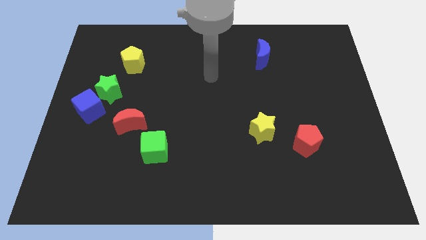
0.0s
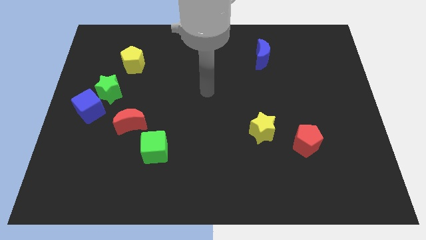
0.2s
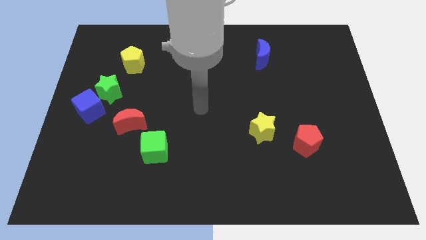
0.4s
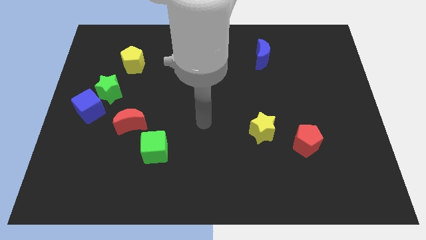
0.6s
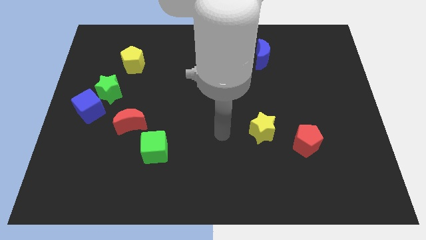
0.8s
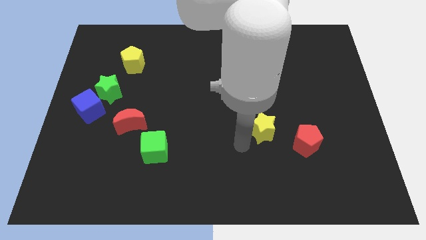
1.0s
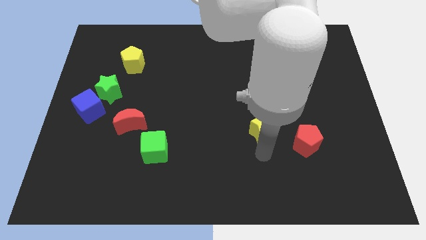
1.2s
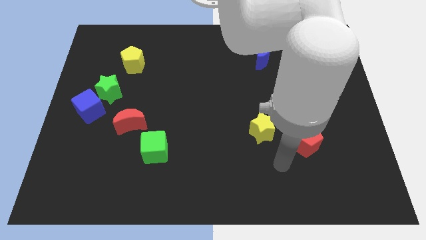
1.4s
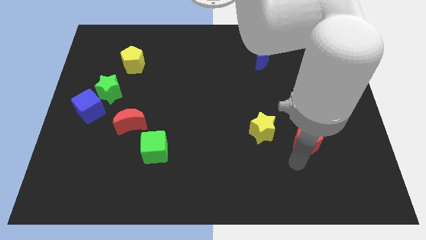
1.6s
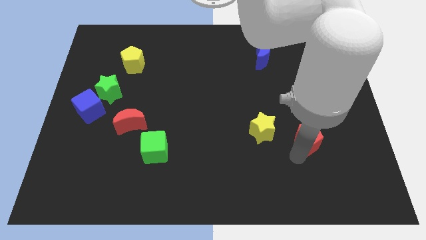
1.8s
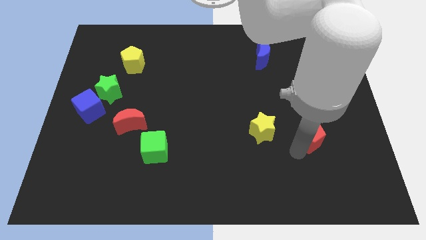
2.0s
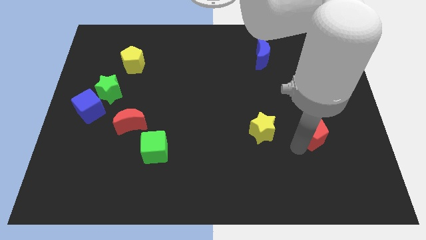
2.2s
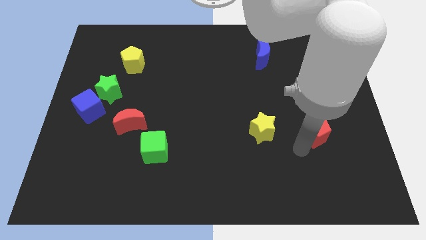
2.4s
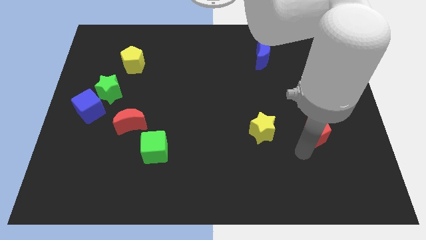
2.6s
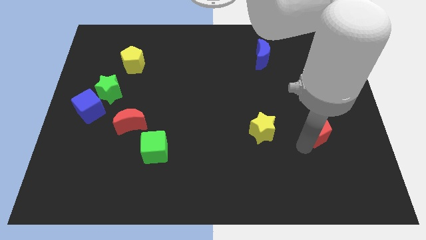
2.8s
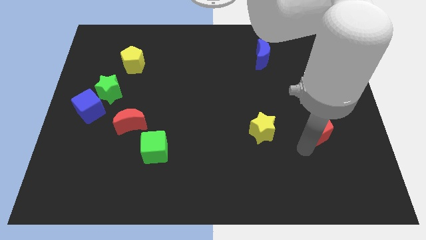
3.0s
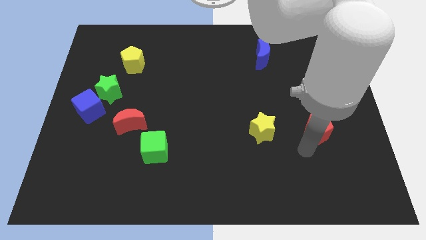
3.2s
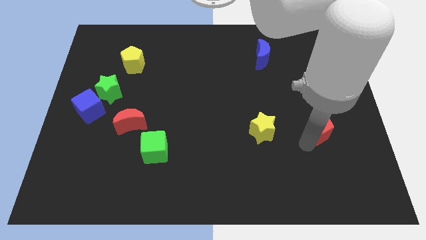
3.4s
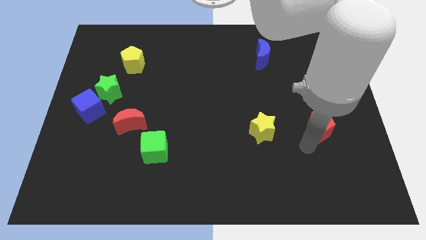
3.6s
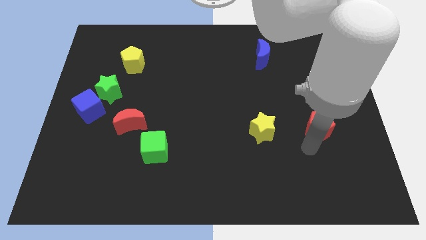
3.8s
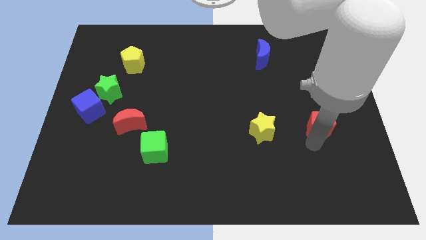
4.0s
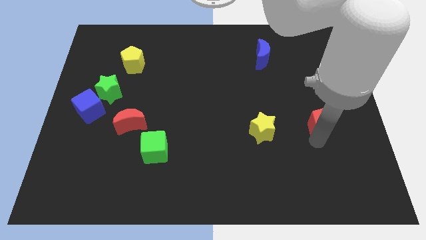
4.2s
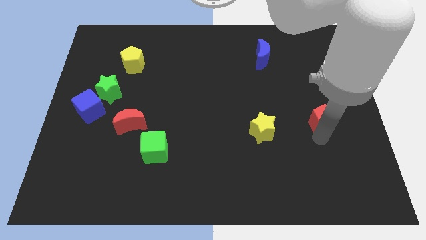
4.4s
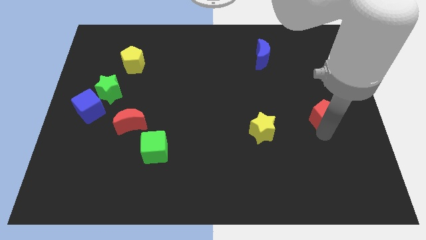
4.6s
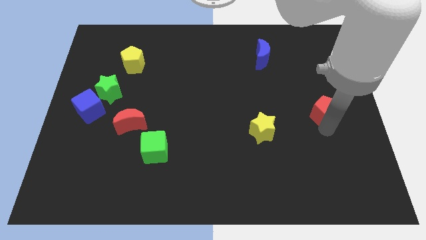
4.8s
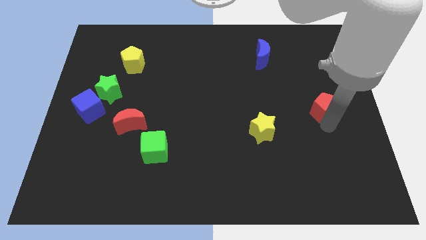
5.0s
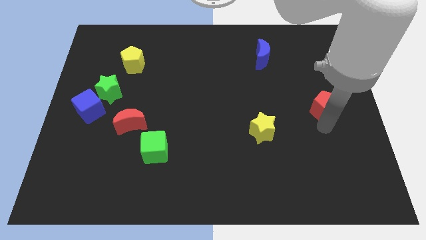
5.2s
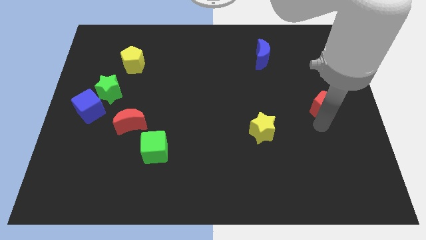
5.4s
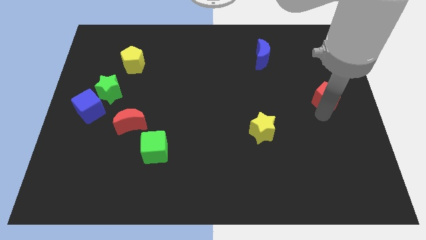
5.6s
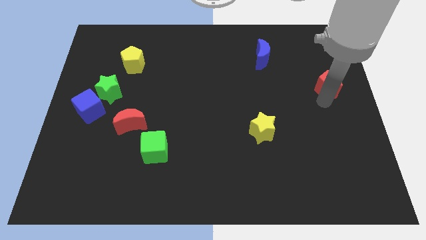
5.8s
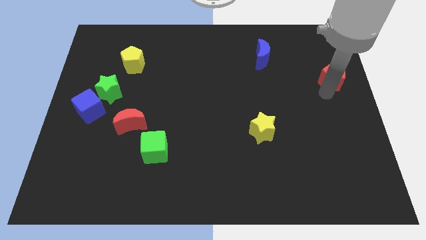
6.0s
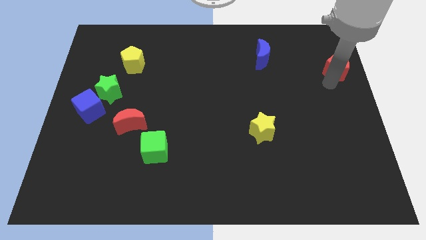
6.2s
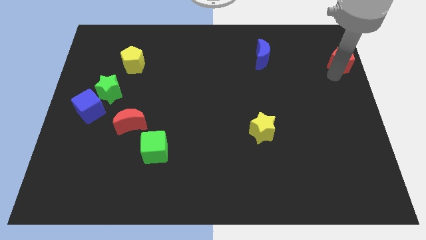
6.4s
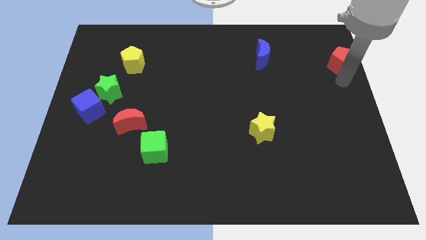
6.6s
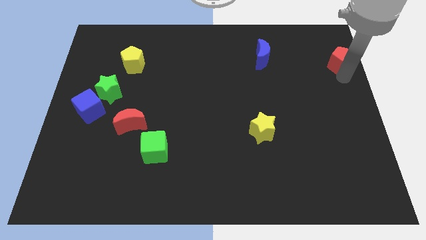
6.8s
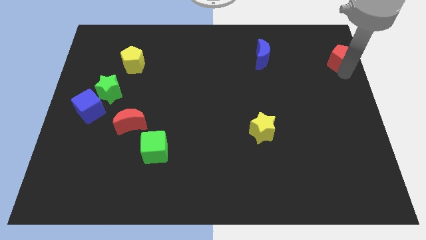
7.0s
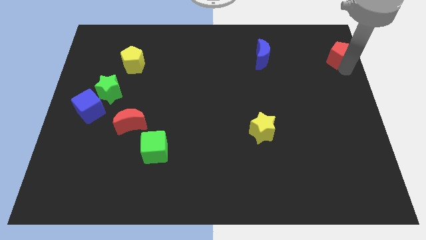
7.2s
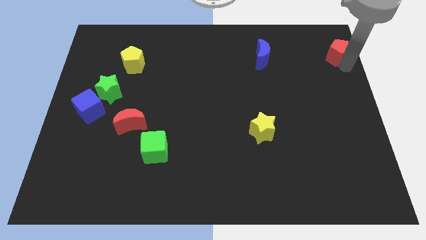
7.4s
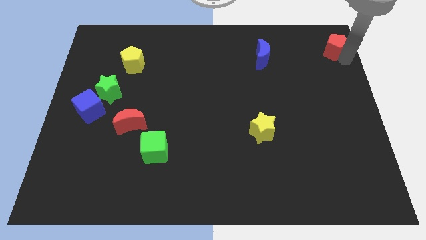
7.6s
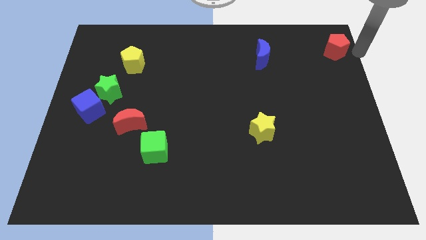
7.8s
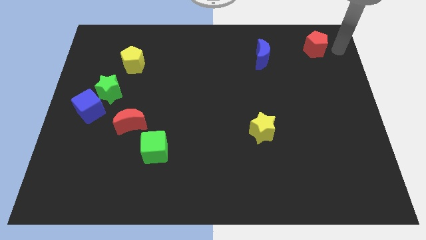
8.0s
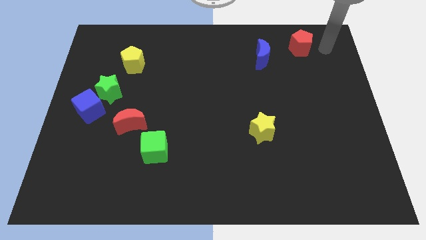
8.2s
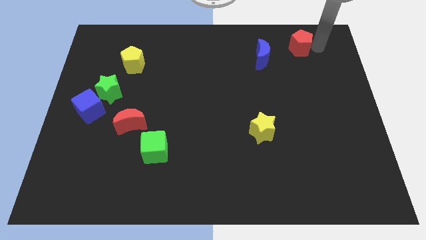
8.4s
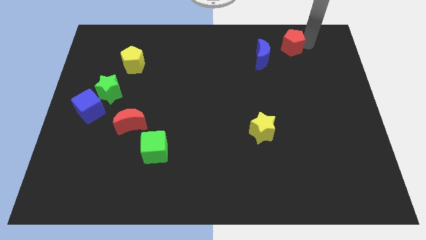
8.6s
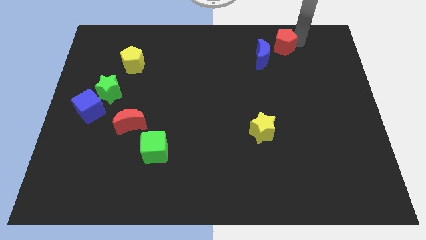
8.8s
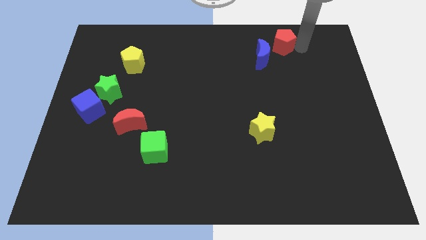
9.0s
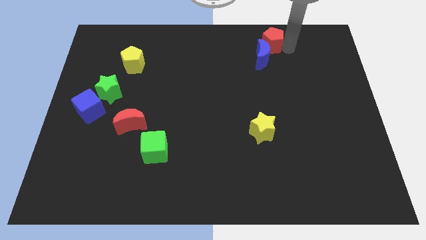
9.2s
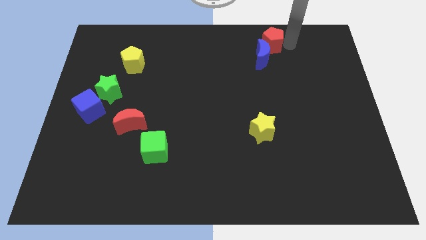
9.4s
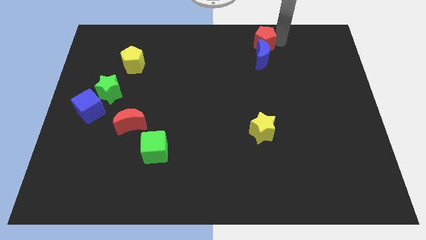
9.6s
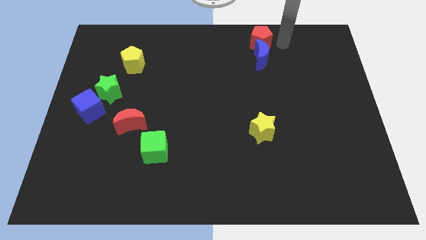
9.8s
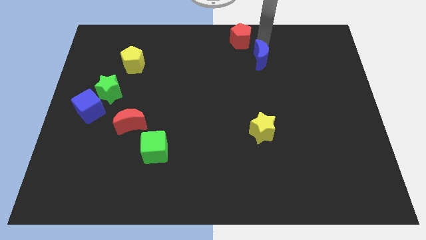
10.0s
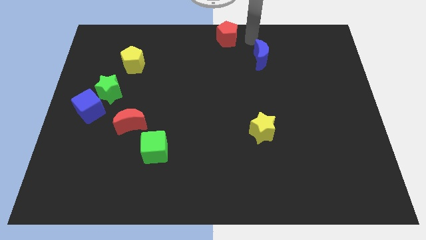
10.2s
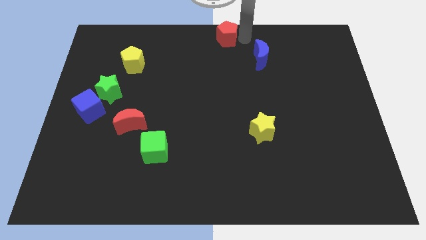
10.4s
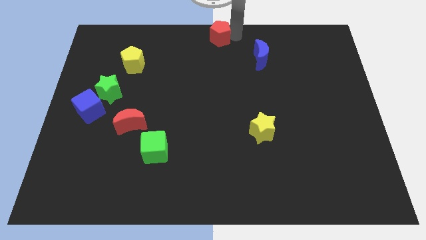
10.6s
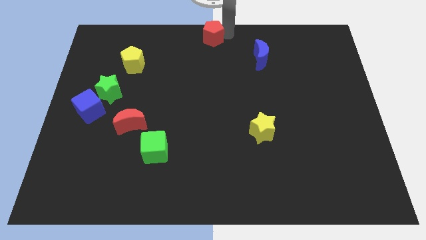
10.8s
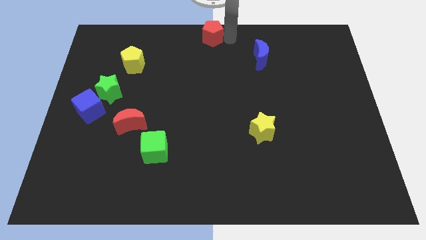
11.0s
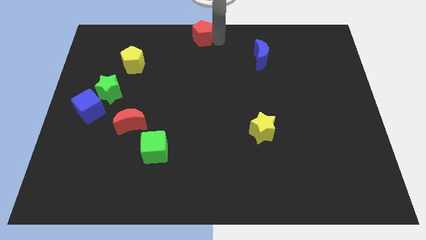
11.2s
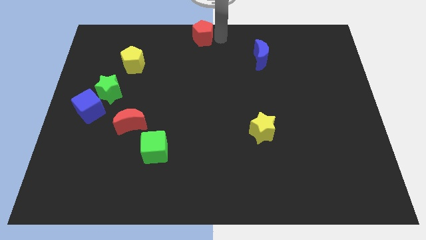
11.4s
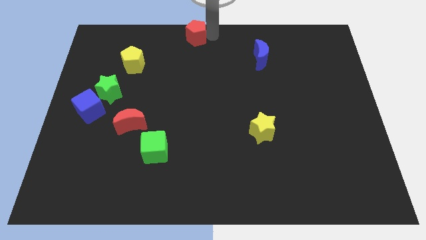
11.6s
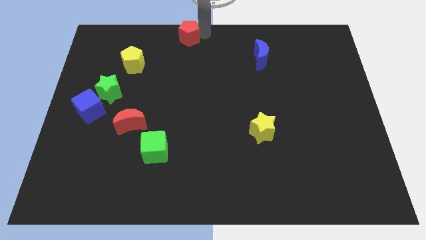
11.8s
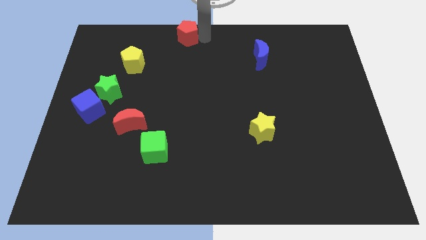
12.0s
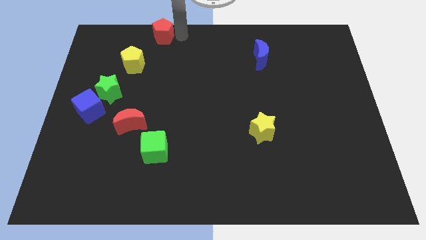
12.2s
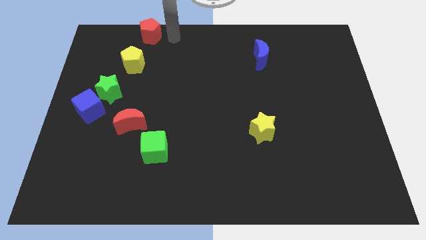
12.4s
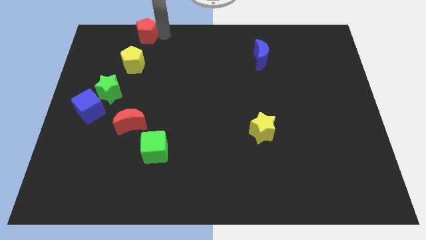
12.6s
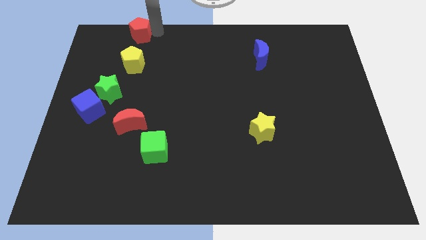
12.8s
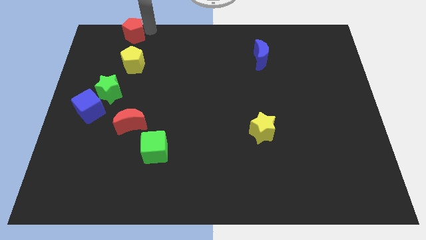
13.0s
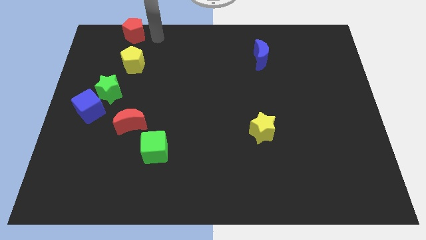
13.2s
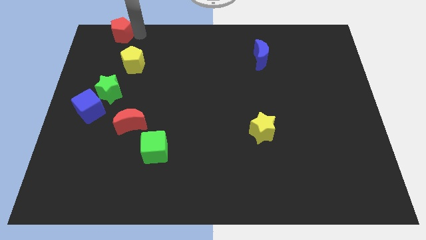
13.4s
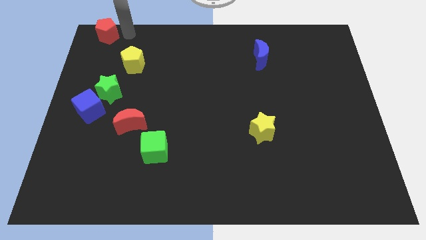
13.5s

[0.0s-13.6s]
put the red pentagon to the top left

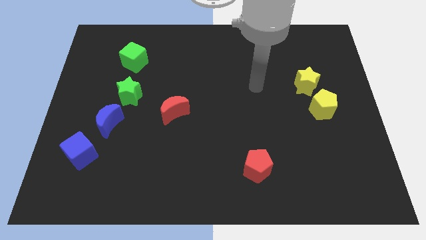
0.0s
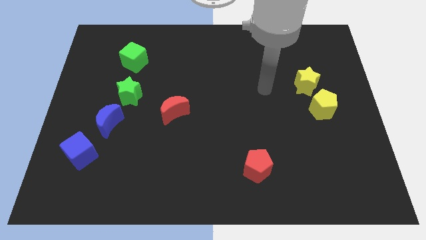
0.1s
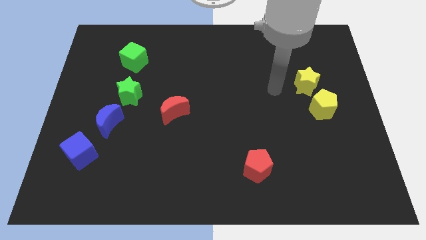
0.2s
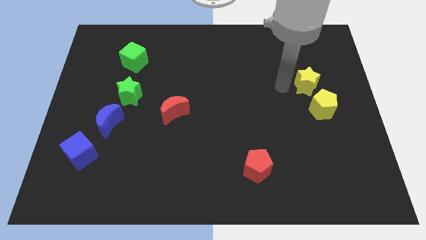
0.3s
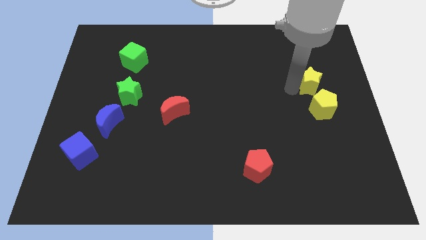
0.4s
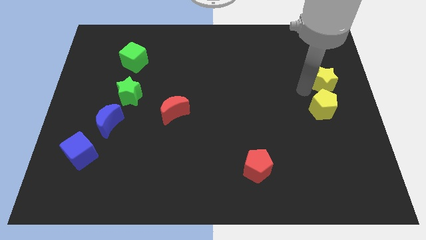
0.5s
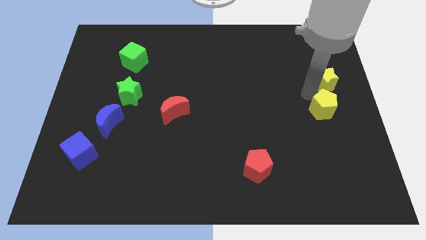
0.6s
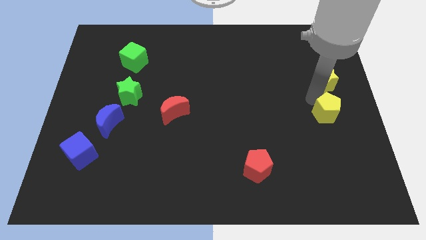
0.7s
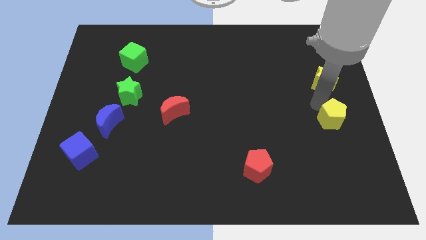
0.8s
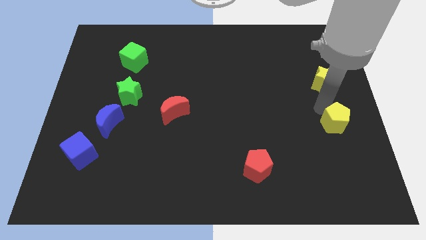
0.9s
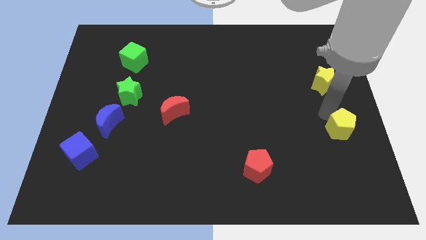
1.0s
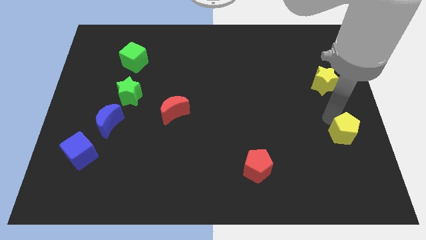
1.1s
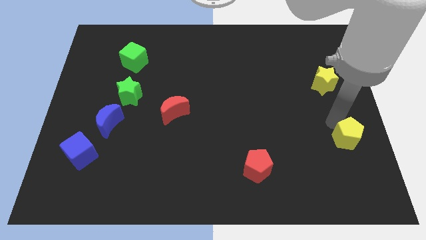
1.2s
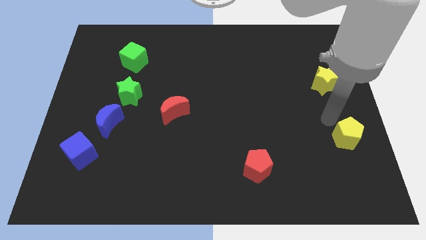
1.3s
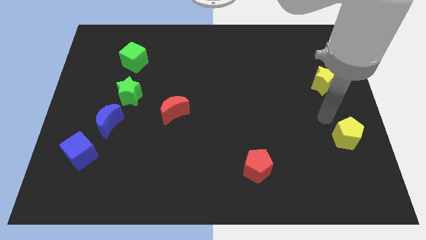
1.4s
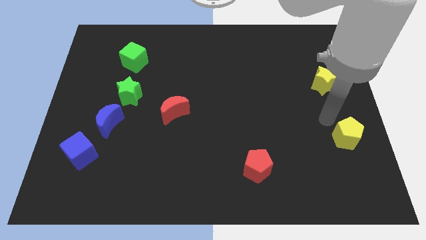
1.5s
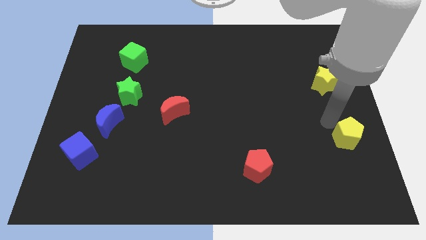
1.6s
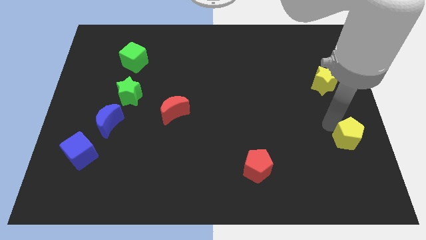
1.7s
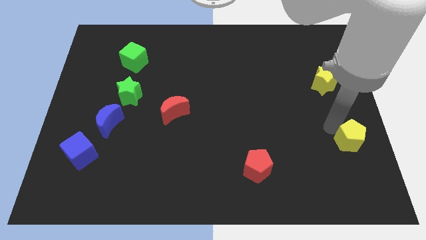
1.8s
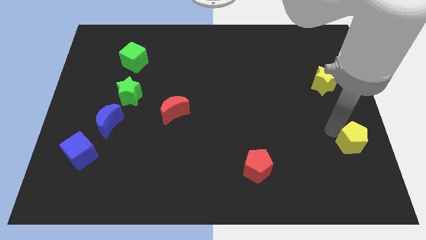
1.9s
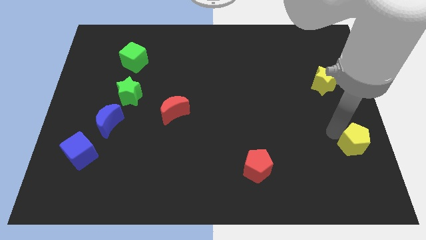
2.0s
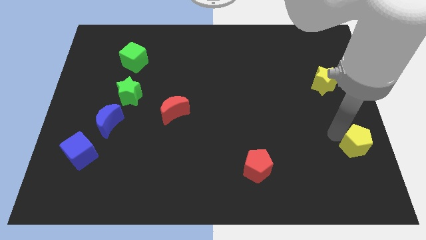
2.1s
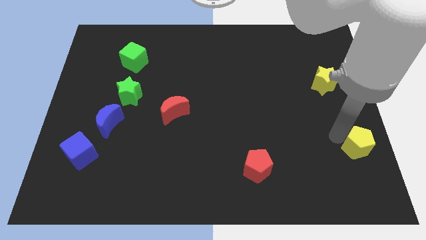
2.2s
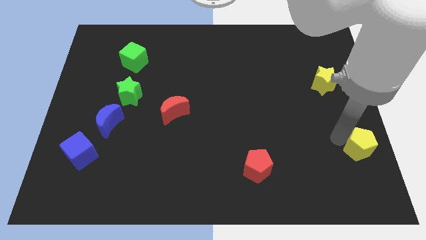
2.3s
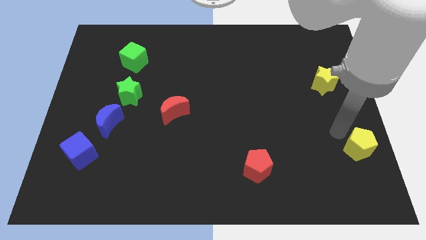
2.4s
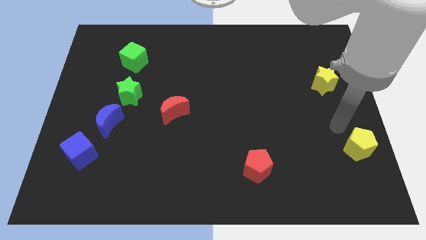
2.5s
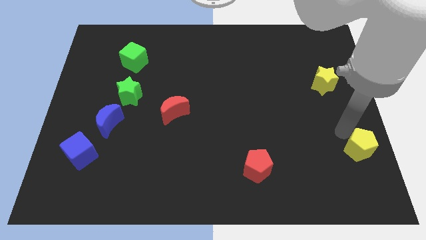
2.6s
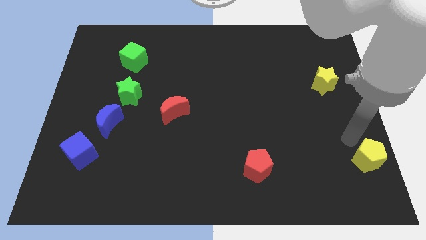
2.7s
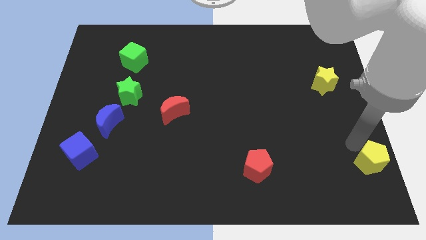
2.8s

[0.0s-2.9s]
put the yellow pentagon to the bottom right of the board
